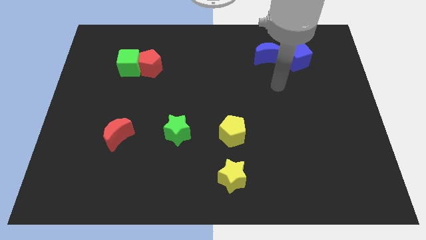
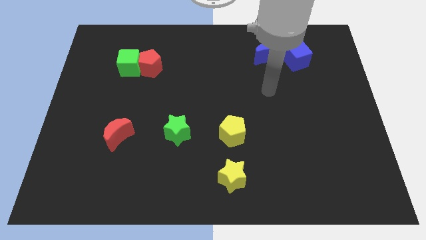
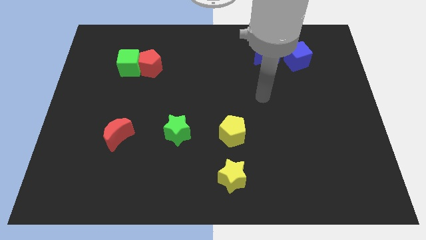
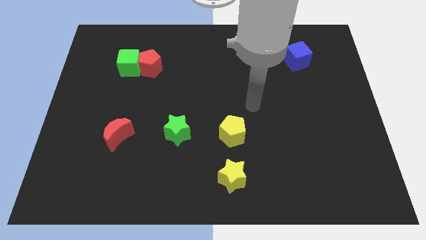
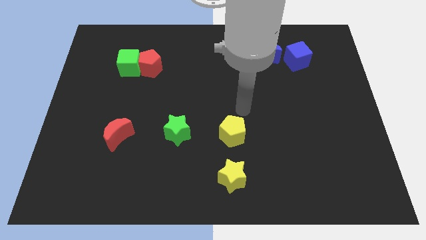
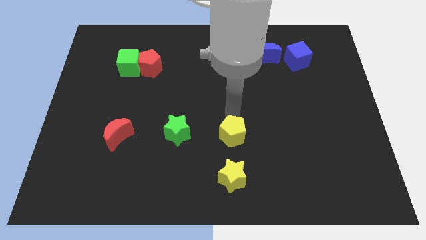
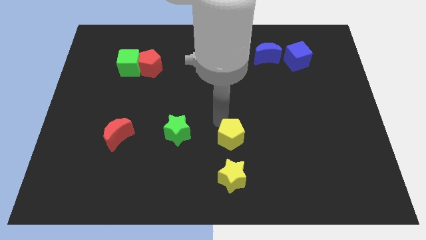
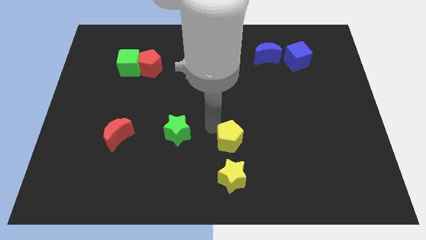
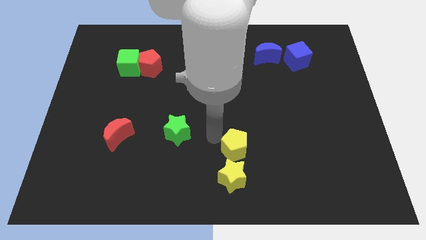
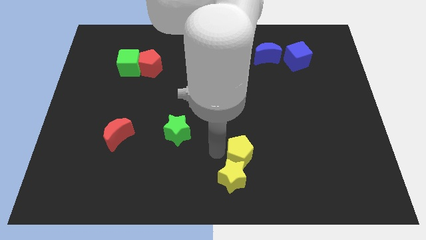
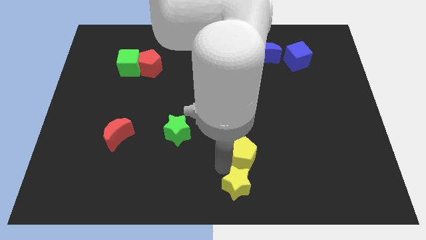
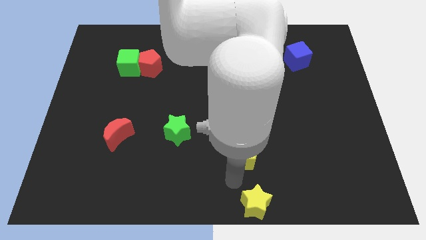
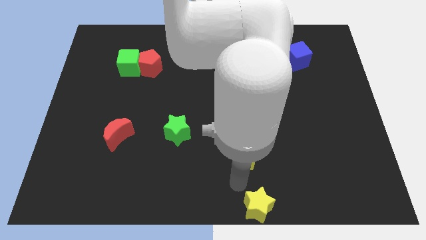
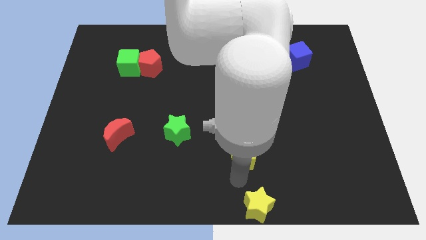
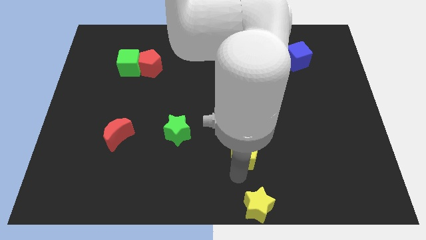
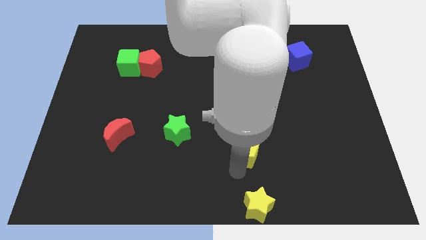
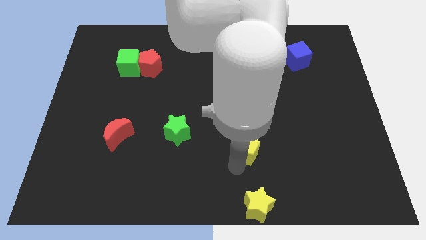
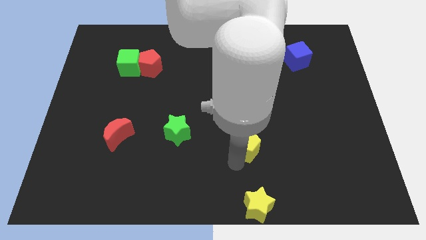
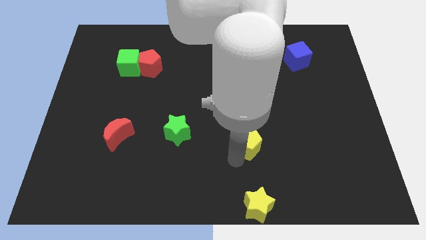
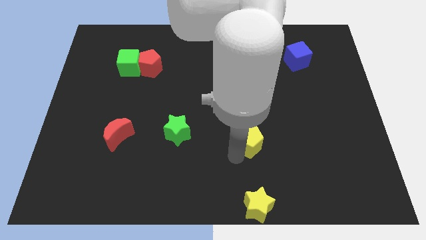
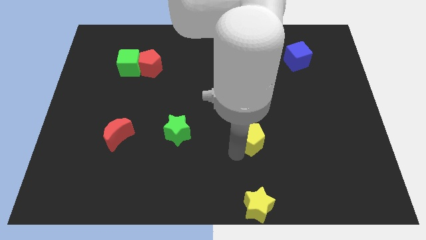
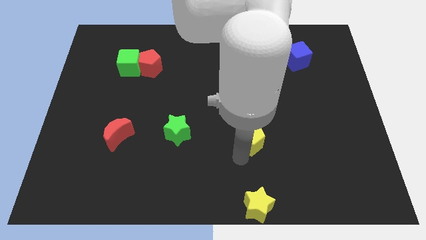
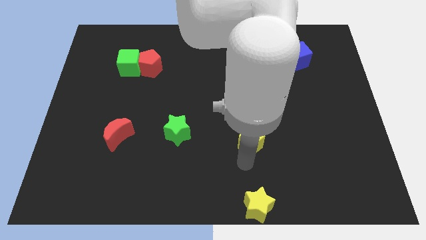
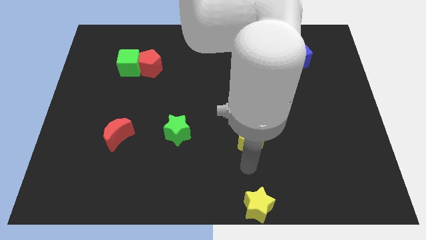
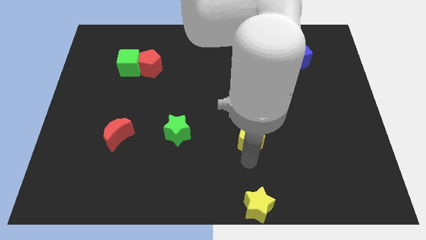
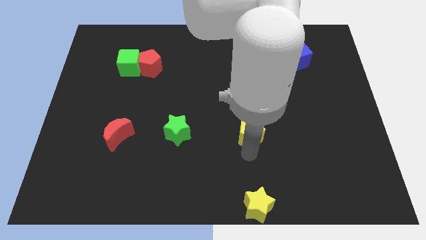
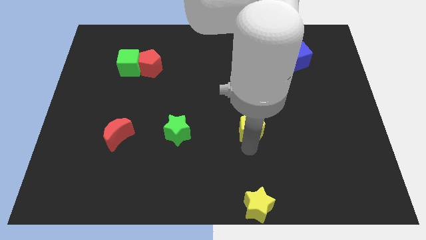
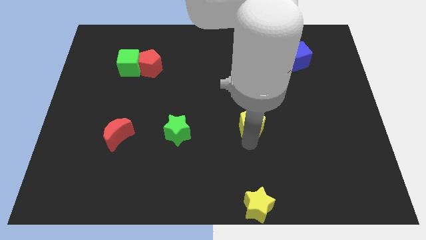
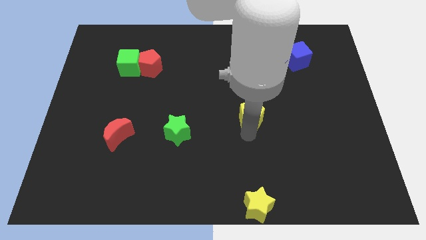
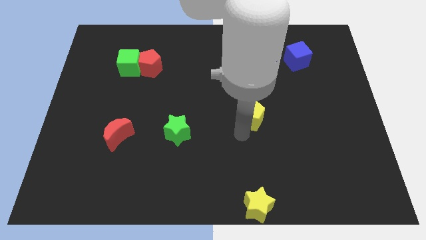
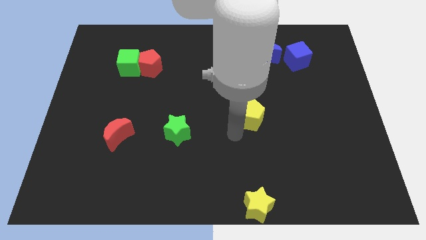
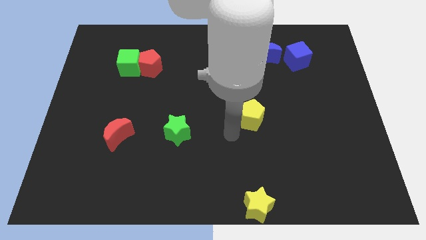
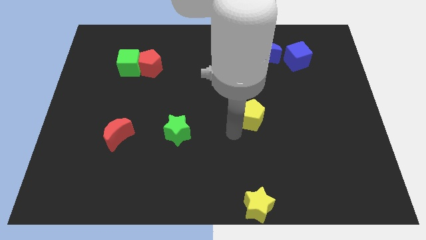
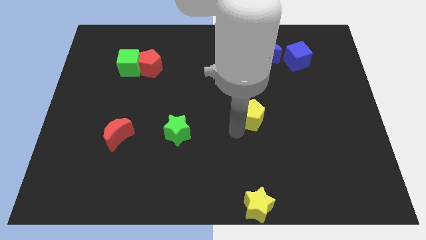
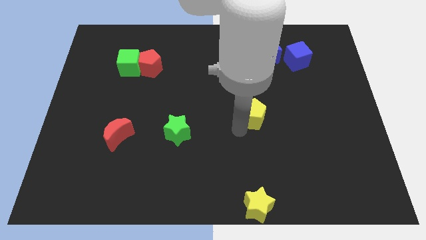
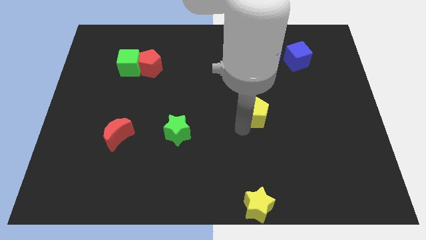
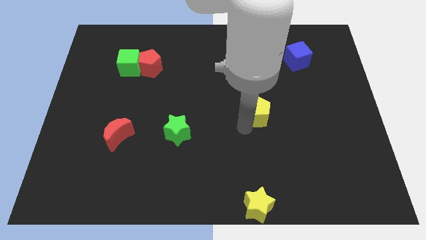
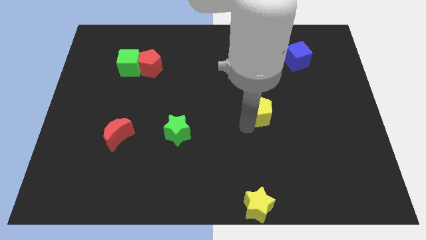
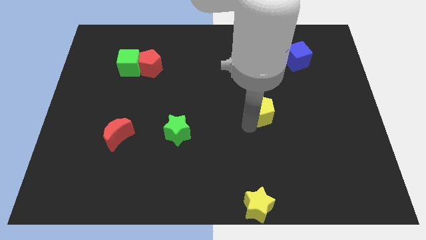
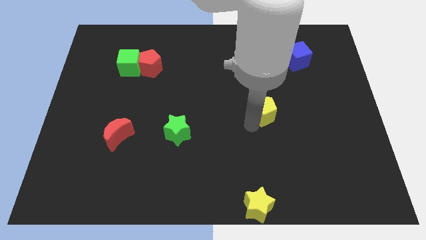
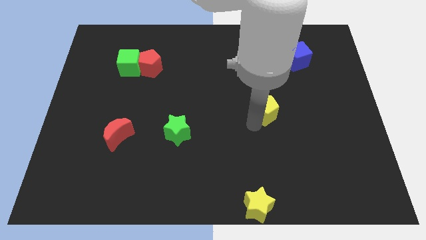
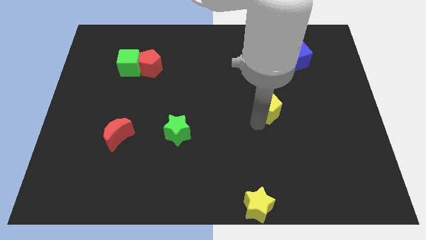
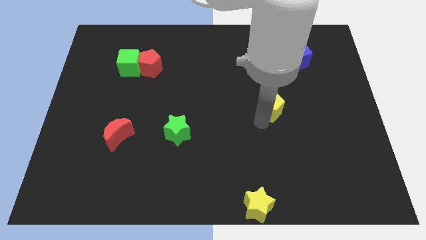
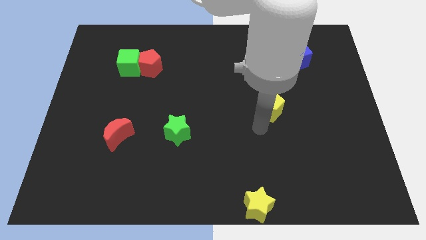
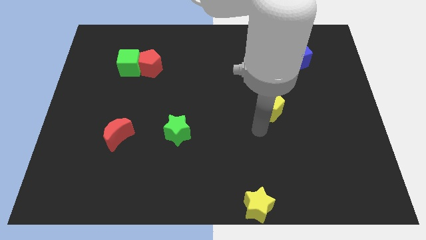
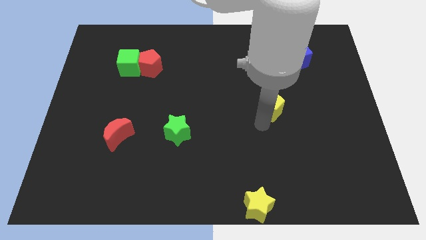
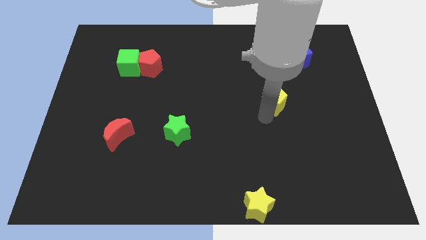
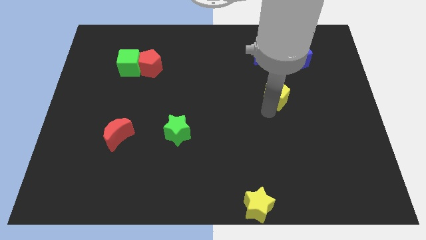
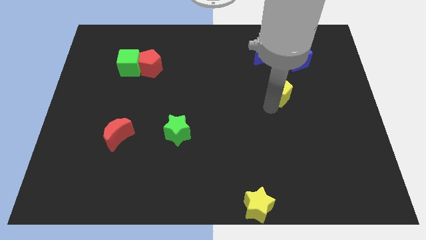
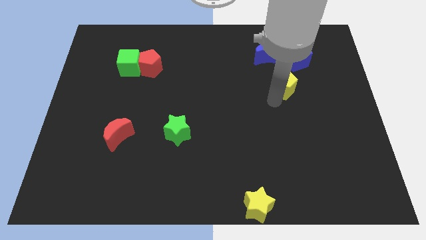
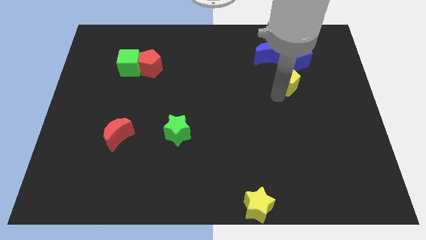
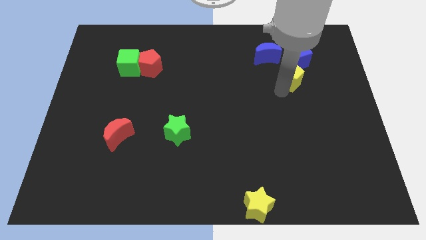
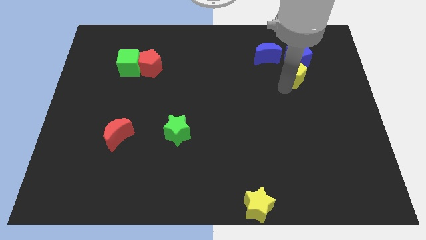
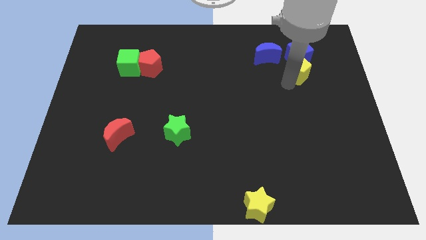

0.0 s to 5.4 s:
slide the yellow pentagon next to the blue cube
